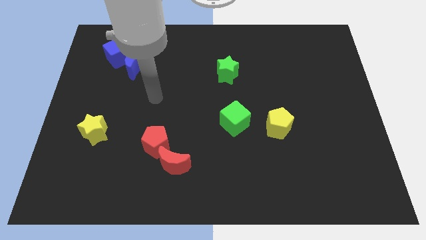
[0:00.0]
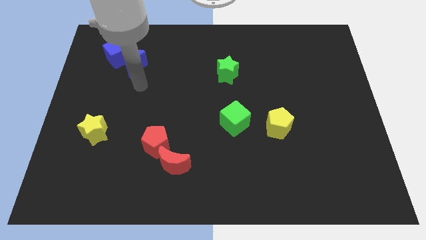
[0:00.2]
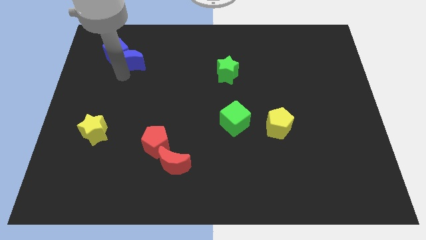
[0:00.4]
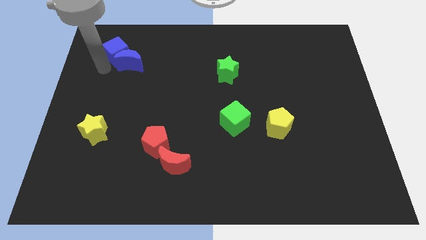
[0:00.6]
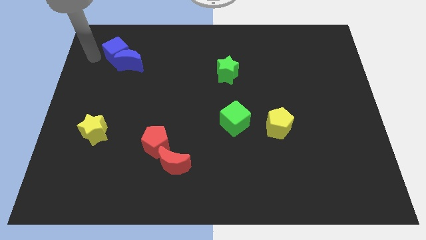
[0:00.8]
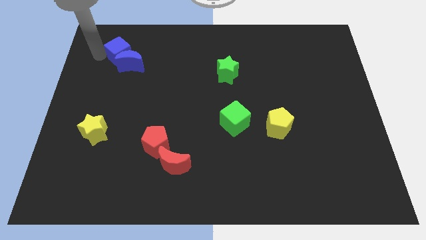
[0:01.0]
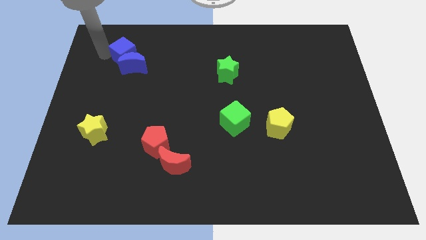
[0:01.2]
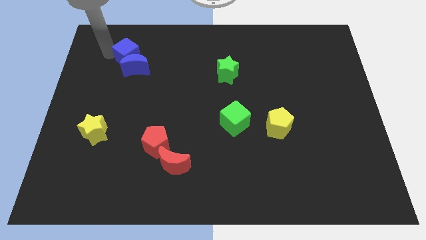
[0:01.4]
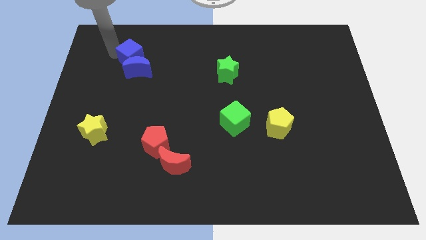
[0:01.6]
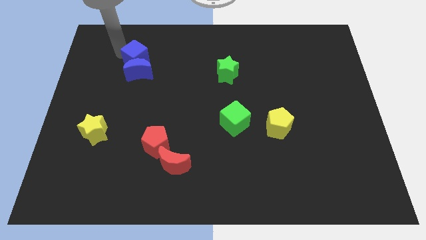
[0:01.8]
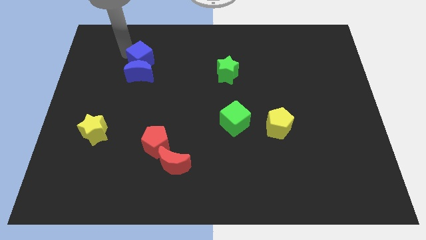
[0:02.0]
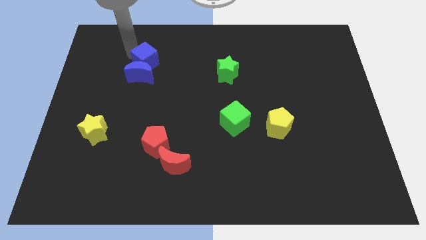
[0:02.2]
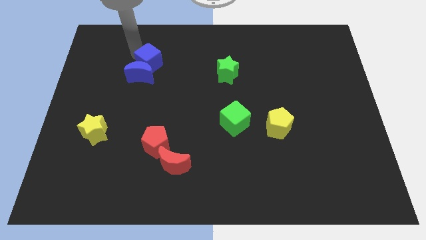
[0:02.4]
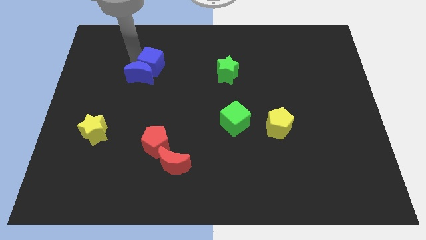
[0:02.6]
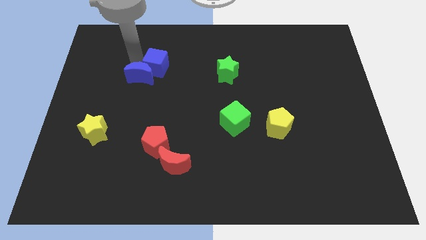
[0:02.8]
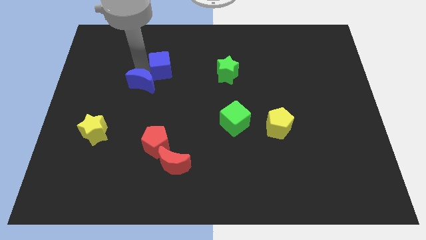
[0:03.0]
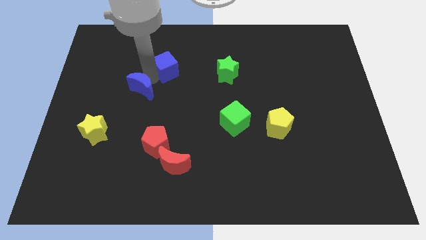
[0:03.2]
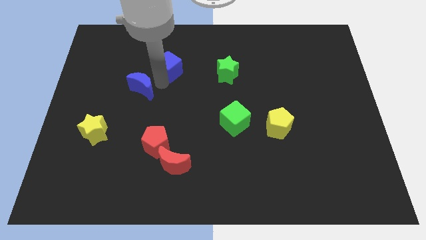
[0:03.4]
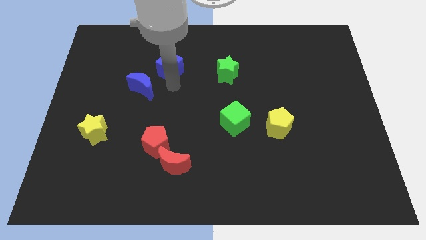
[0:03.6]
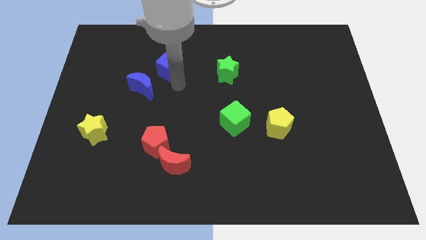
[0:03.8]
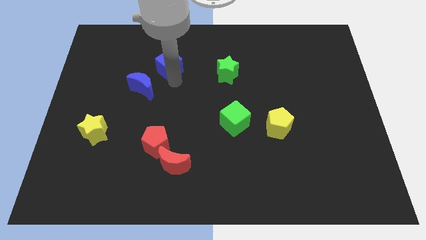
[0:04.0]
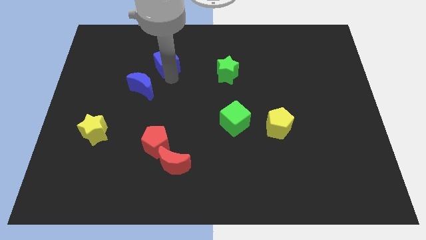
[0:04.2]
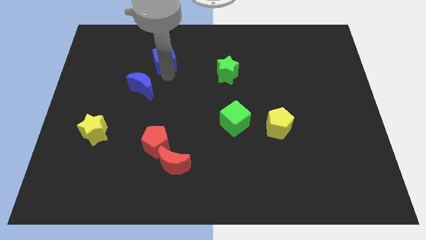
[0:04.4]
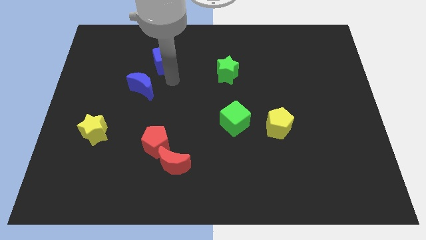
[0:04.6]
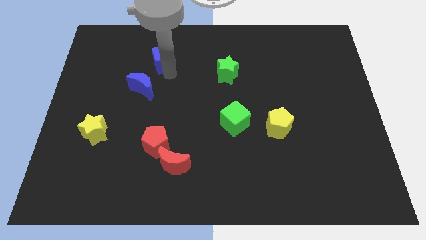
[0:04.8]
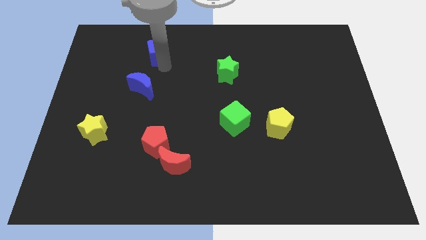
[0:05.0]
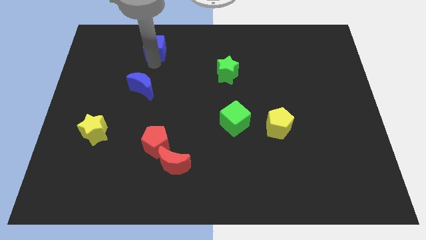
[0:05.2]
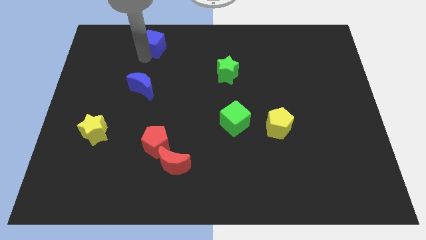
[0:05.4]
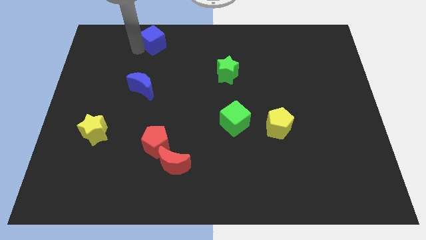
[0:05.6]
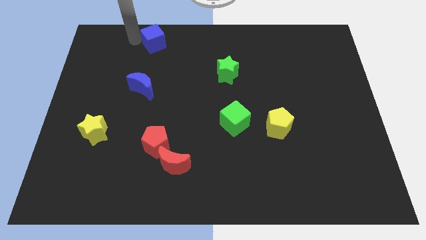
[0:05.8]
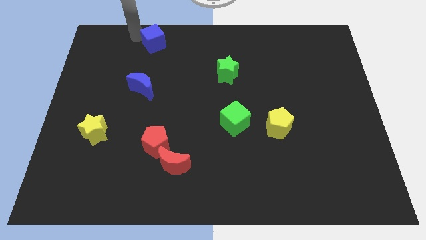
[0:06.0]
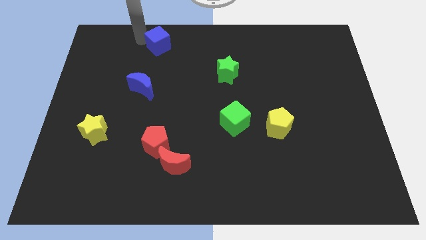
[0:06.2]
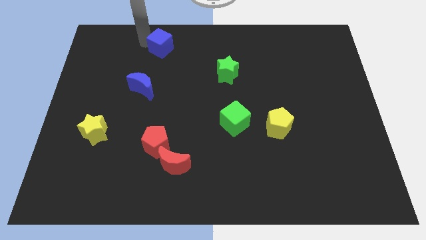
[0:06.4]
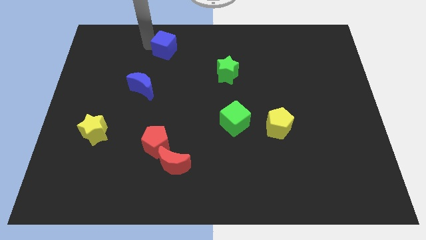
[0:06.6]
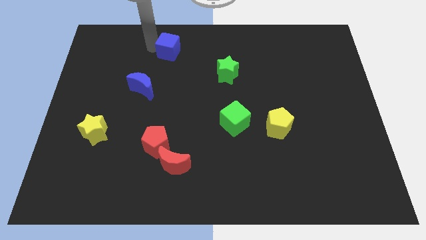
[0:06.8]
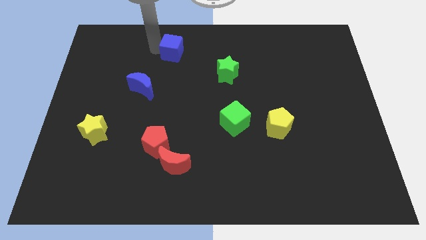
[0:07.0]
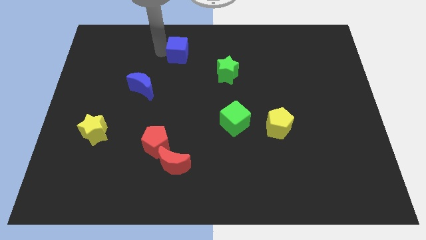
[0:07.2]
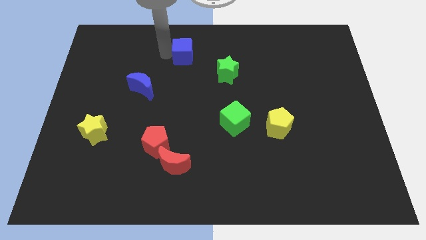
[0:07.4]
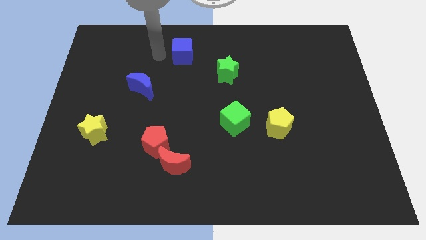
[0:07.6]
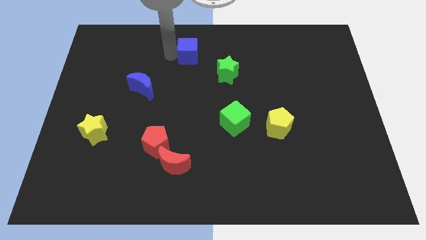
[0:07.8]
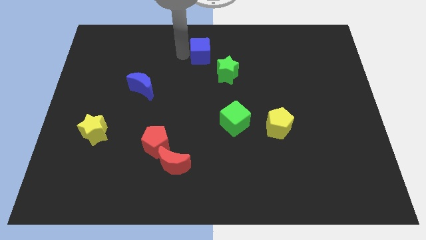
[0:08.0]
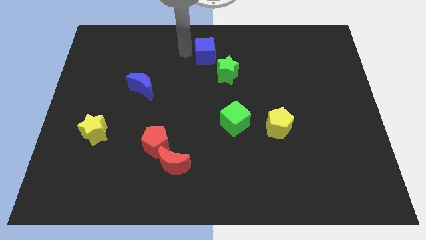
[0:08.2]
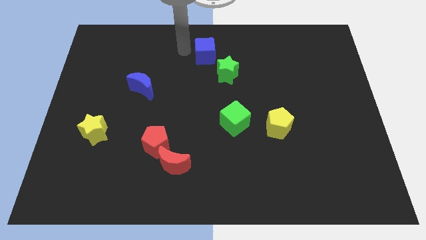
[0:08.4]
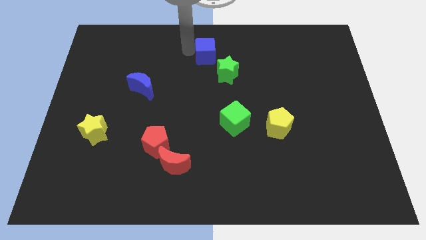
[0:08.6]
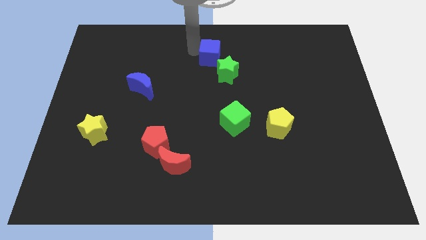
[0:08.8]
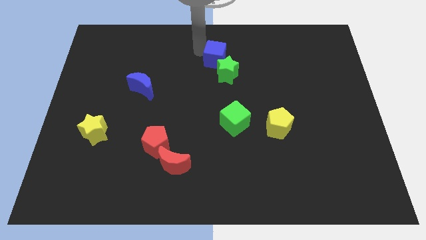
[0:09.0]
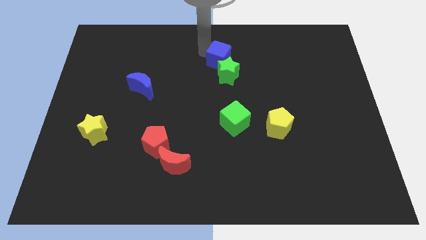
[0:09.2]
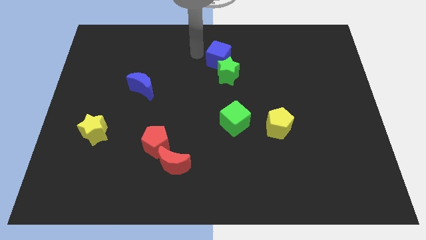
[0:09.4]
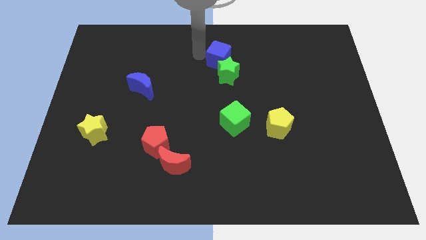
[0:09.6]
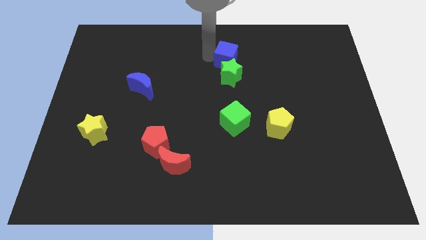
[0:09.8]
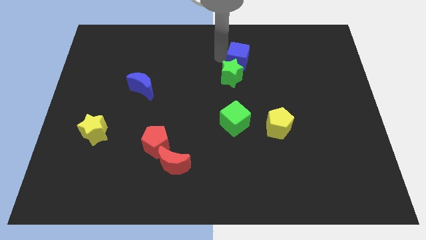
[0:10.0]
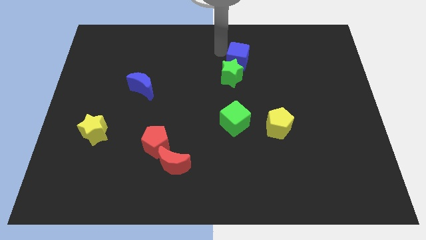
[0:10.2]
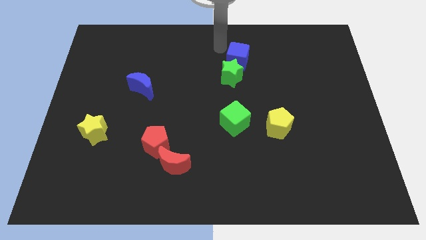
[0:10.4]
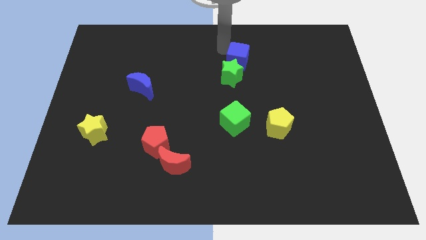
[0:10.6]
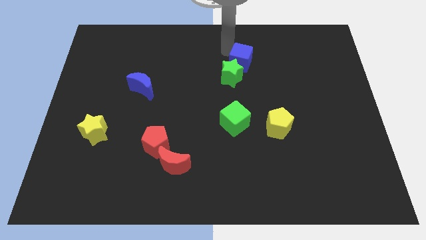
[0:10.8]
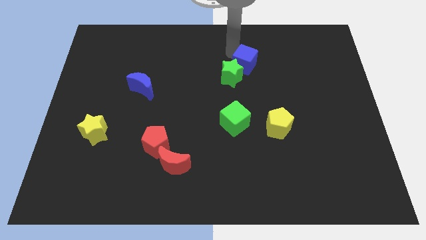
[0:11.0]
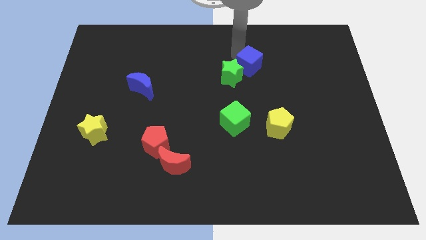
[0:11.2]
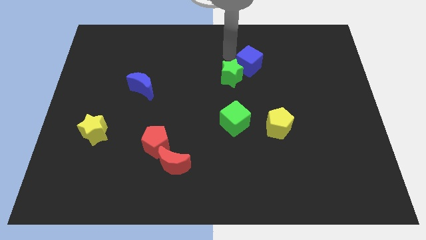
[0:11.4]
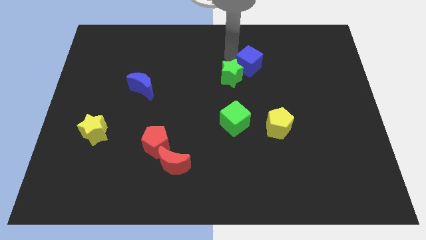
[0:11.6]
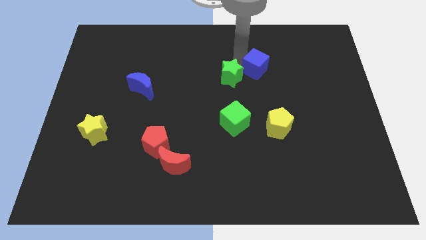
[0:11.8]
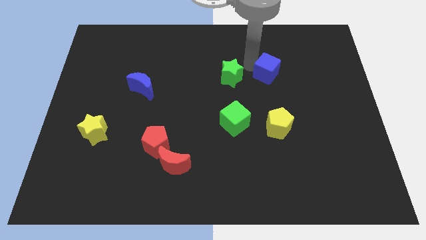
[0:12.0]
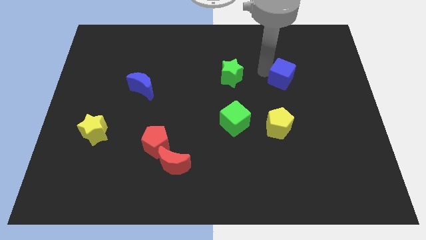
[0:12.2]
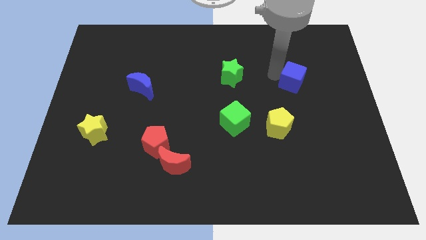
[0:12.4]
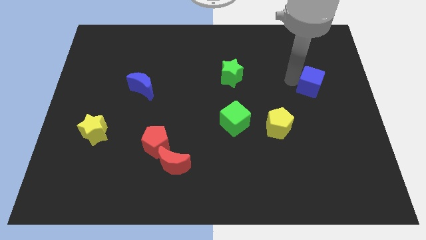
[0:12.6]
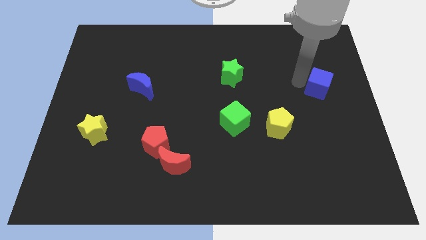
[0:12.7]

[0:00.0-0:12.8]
put the blue cube to the right side
